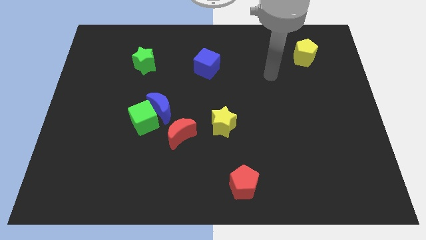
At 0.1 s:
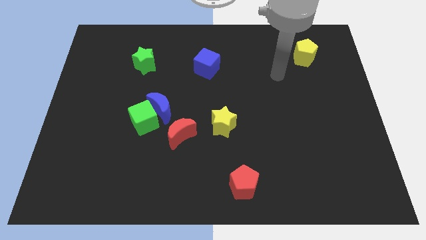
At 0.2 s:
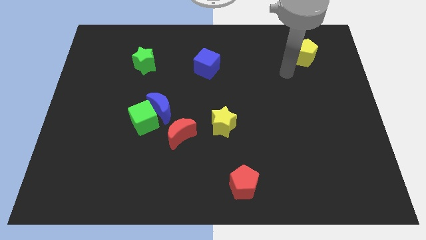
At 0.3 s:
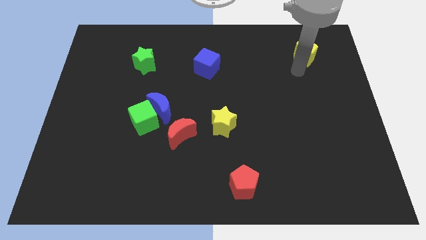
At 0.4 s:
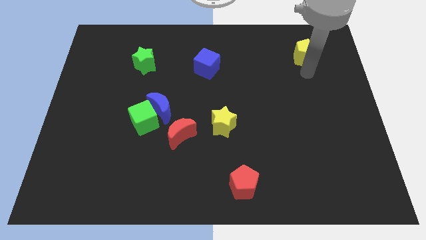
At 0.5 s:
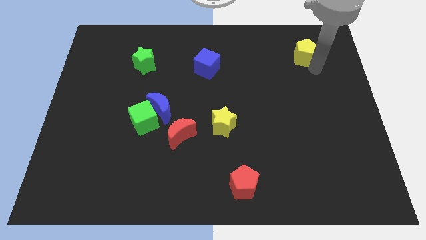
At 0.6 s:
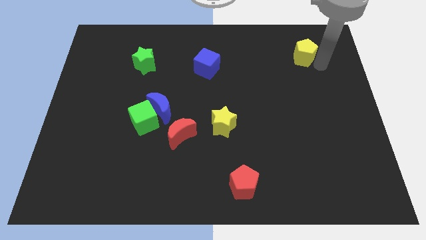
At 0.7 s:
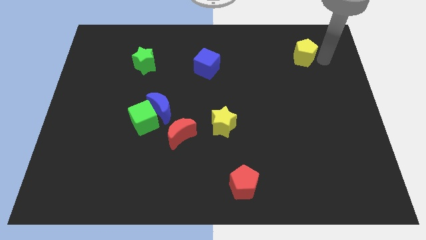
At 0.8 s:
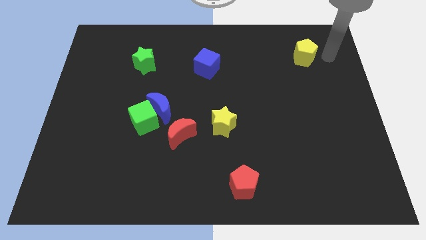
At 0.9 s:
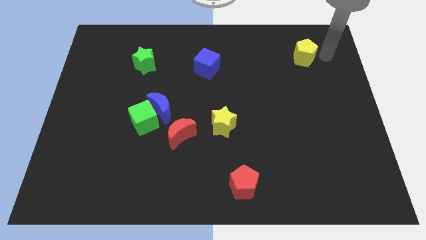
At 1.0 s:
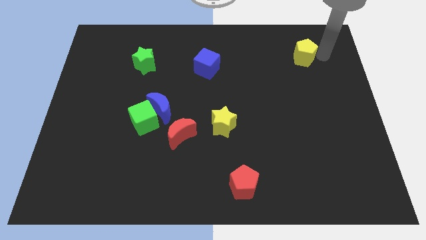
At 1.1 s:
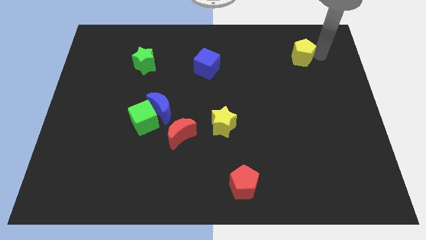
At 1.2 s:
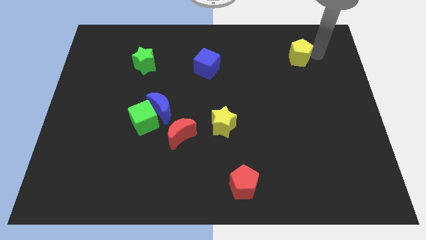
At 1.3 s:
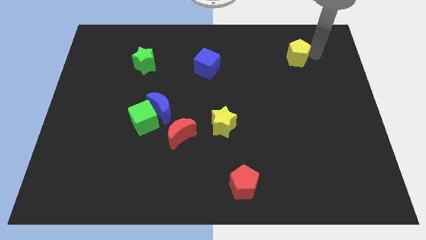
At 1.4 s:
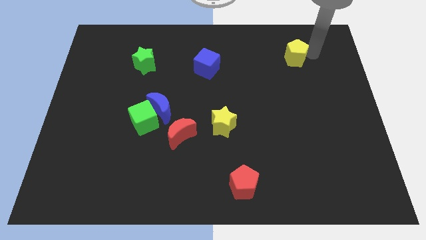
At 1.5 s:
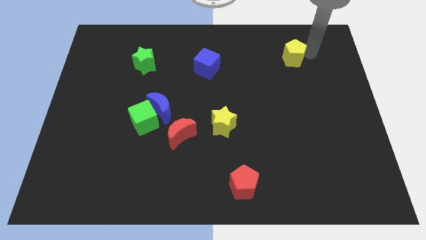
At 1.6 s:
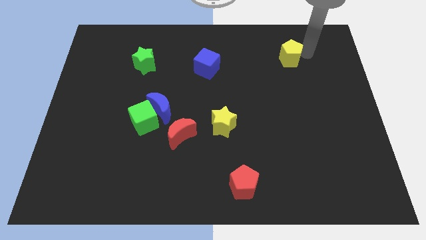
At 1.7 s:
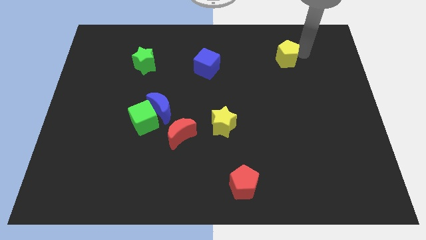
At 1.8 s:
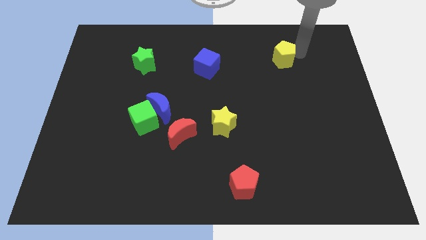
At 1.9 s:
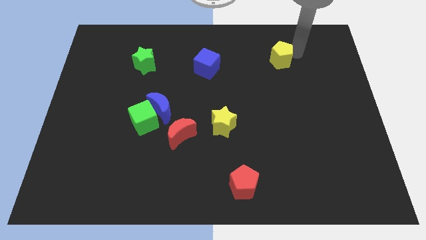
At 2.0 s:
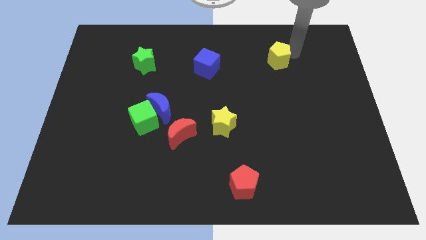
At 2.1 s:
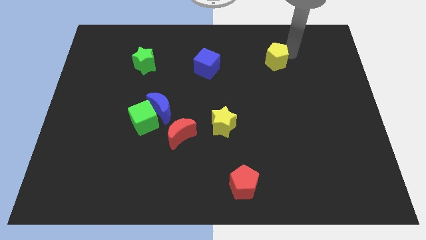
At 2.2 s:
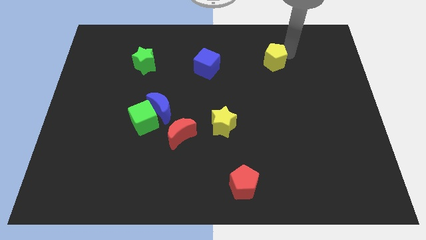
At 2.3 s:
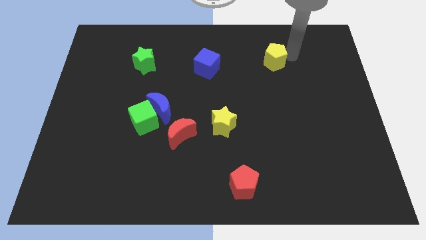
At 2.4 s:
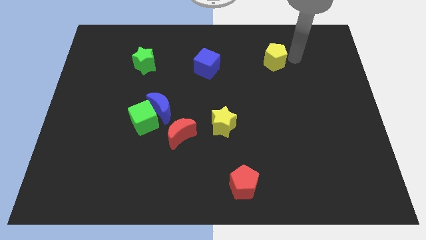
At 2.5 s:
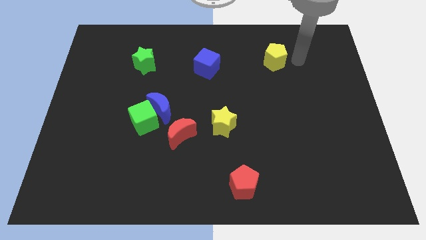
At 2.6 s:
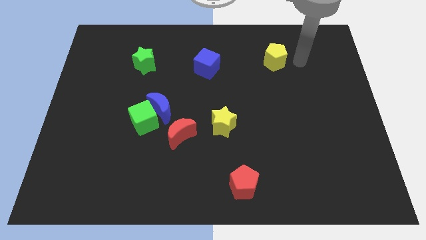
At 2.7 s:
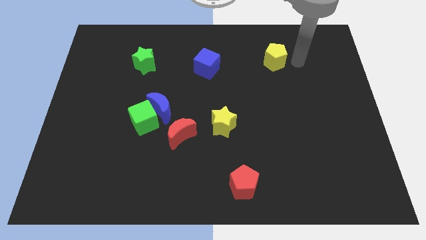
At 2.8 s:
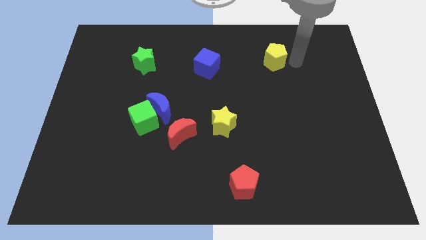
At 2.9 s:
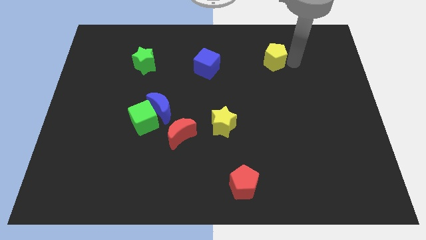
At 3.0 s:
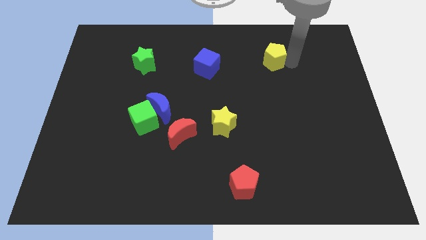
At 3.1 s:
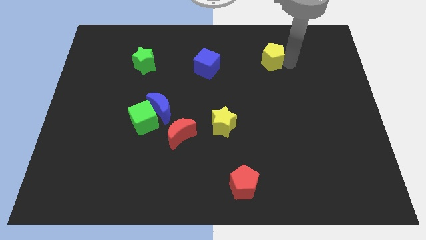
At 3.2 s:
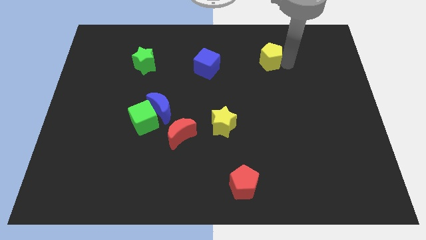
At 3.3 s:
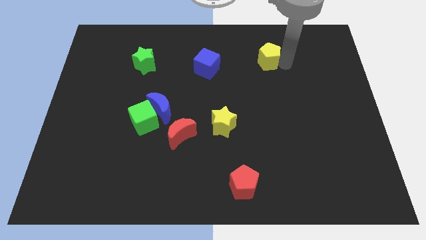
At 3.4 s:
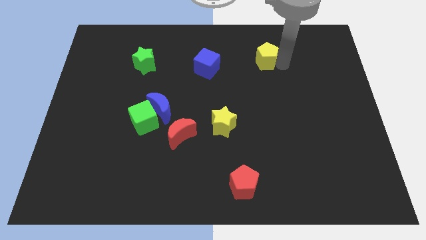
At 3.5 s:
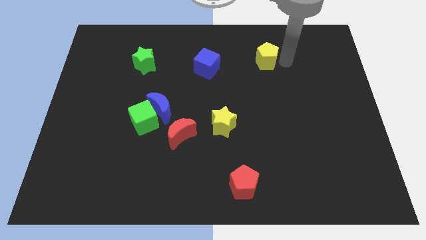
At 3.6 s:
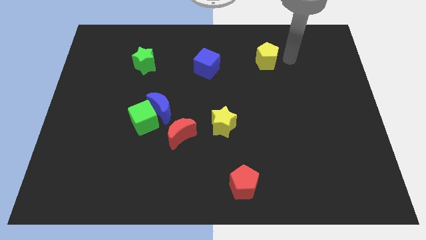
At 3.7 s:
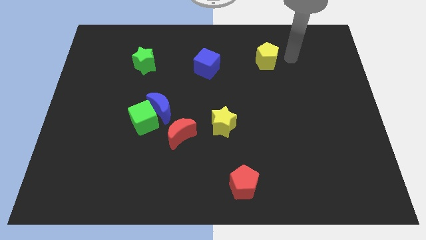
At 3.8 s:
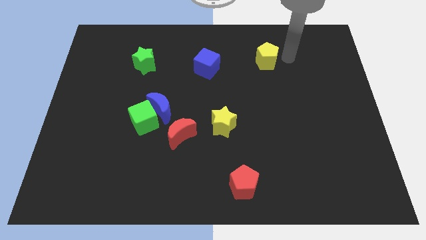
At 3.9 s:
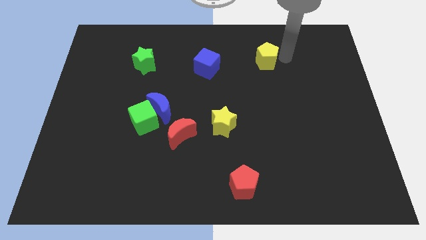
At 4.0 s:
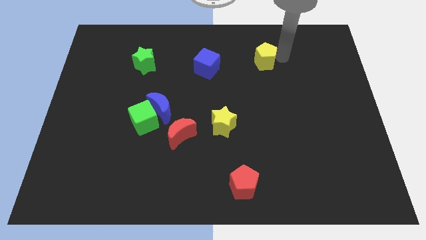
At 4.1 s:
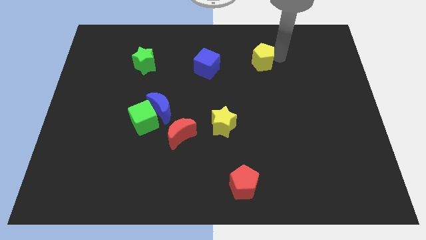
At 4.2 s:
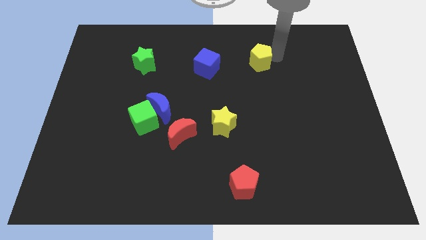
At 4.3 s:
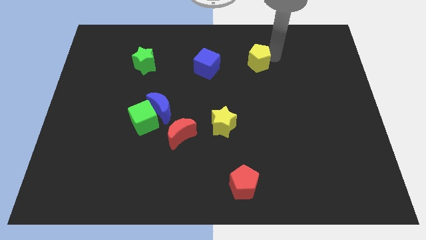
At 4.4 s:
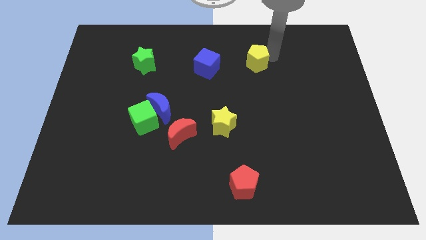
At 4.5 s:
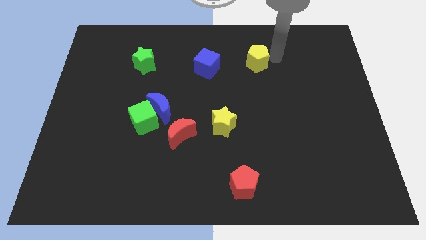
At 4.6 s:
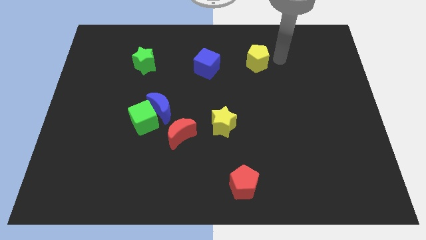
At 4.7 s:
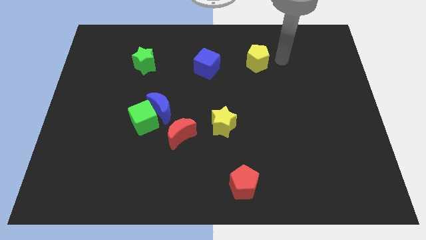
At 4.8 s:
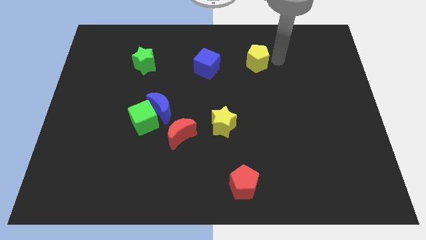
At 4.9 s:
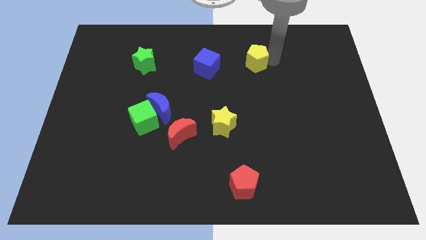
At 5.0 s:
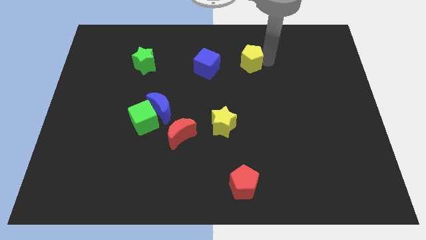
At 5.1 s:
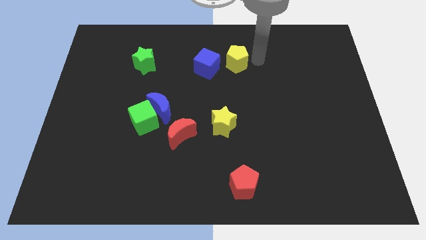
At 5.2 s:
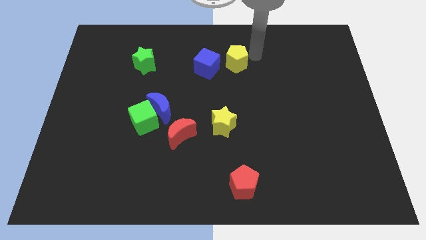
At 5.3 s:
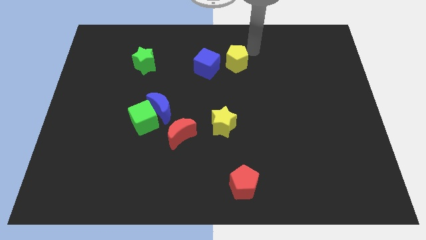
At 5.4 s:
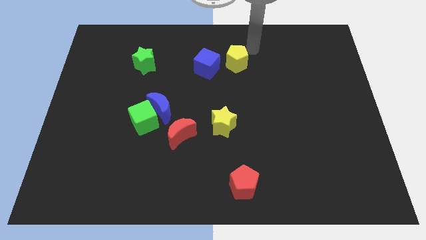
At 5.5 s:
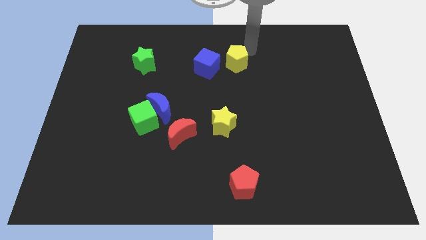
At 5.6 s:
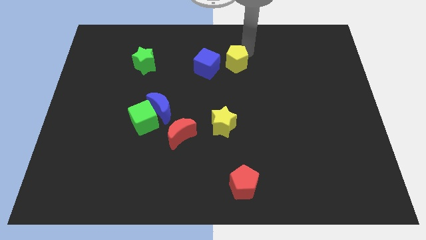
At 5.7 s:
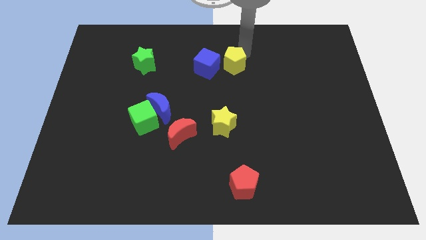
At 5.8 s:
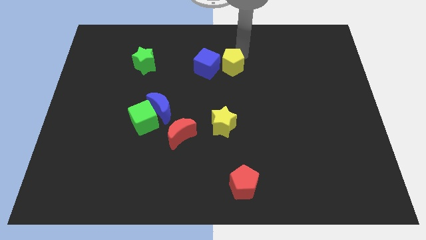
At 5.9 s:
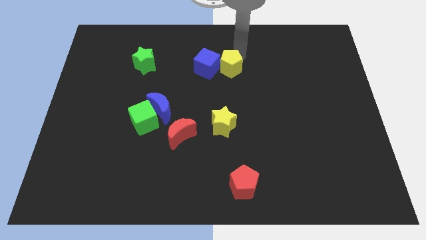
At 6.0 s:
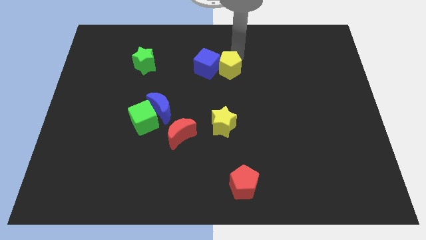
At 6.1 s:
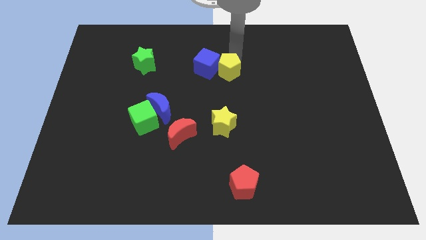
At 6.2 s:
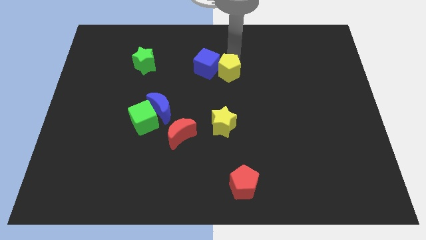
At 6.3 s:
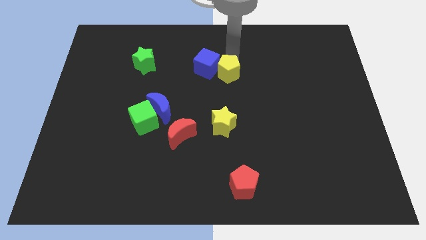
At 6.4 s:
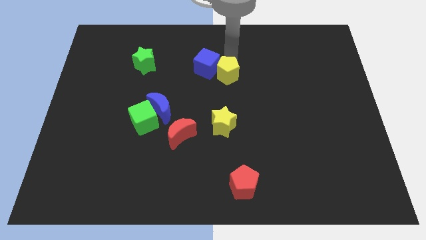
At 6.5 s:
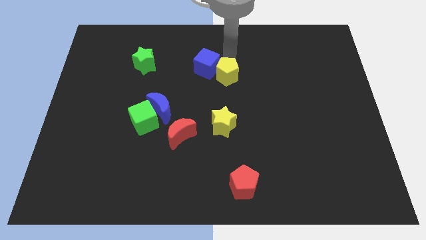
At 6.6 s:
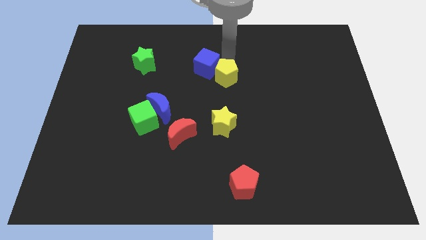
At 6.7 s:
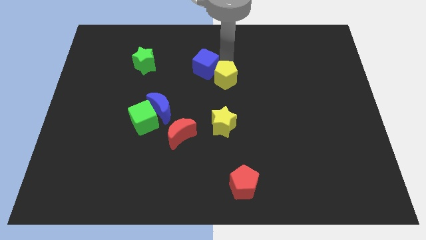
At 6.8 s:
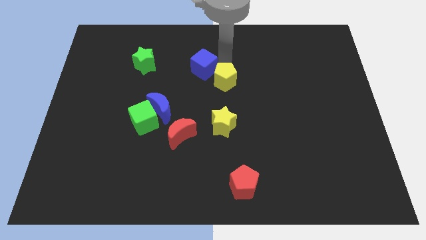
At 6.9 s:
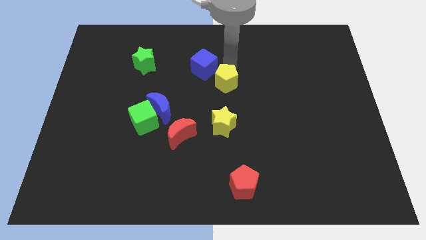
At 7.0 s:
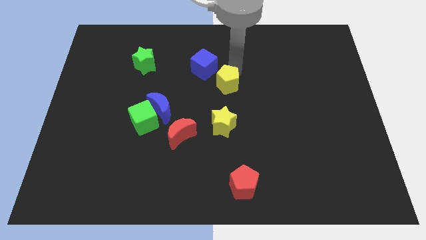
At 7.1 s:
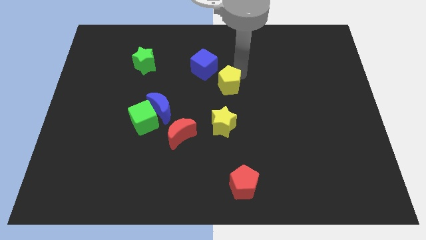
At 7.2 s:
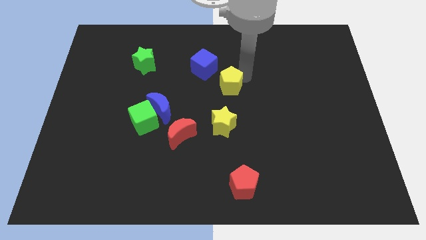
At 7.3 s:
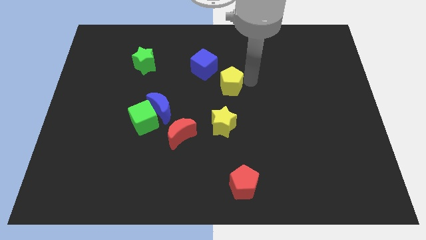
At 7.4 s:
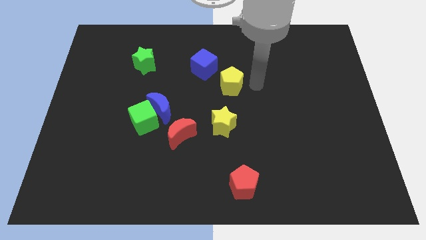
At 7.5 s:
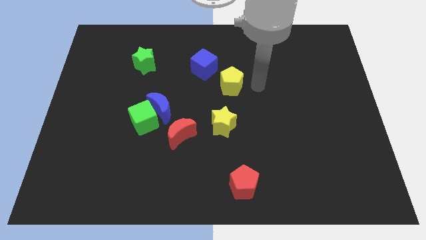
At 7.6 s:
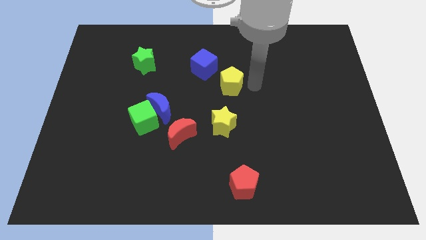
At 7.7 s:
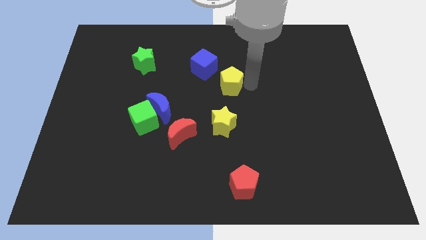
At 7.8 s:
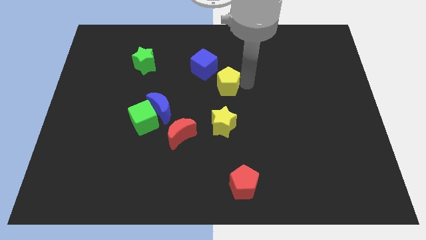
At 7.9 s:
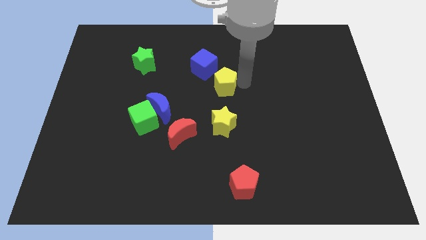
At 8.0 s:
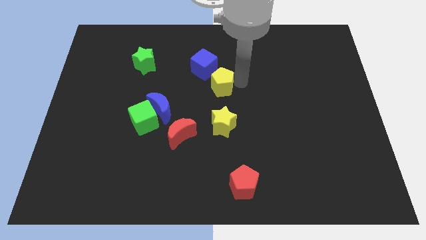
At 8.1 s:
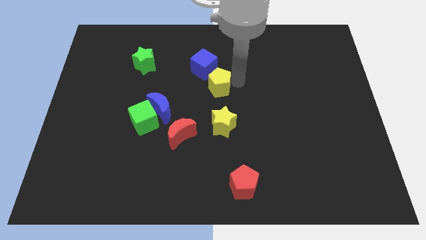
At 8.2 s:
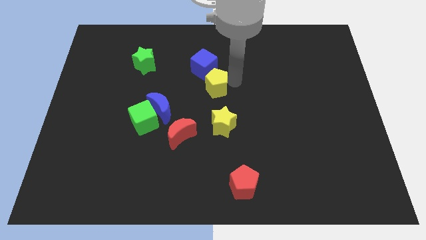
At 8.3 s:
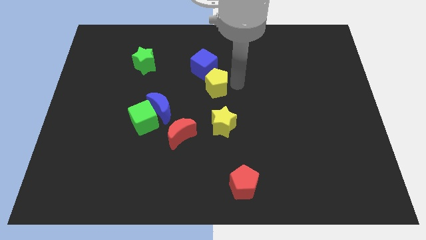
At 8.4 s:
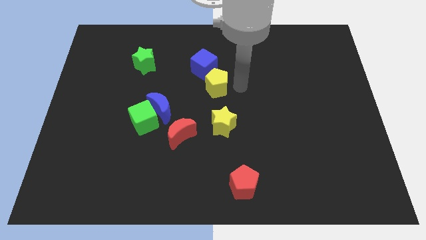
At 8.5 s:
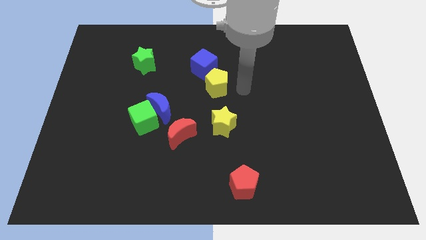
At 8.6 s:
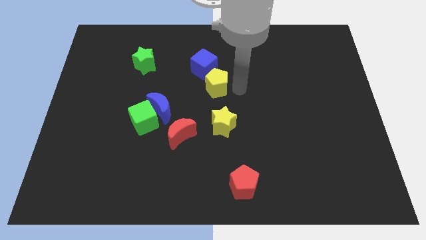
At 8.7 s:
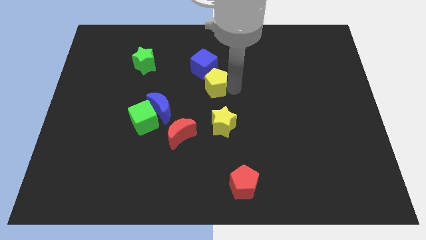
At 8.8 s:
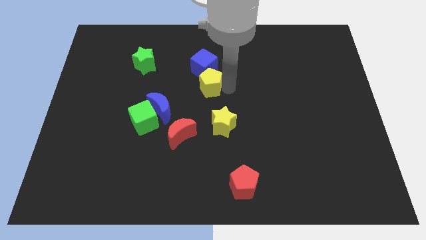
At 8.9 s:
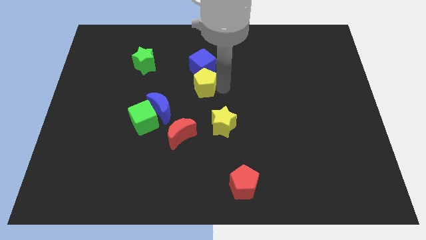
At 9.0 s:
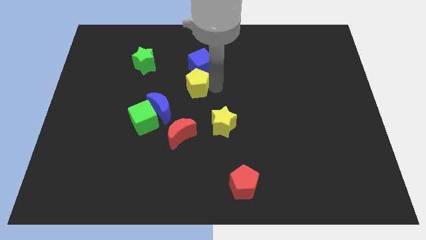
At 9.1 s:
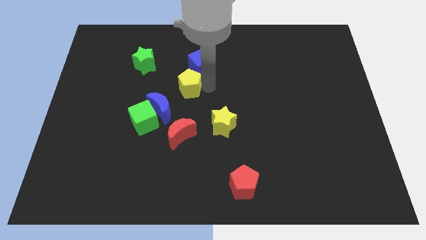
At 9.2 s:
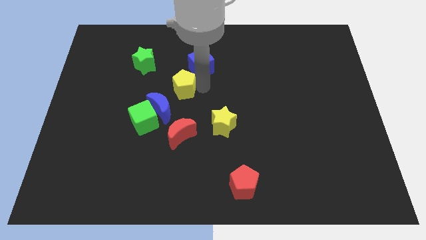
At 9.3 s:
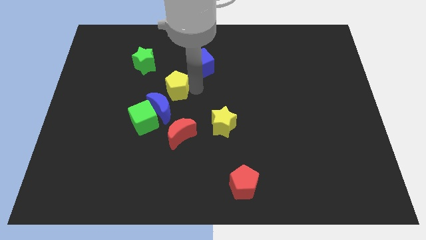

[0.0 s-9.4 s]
slide the yellow pentagon to the bottom right side of the green star
